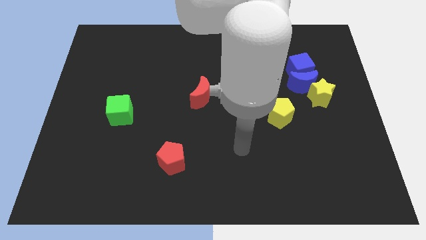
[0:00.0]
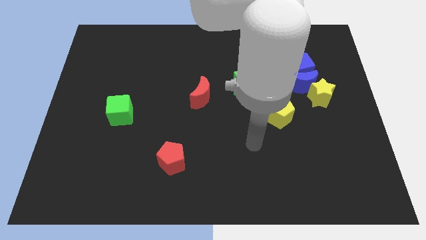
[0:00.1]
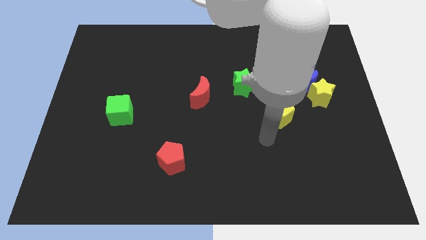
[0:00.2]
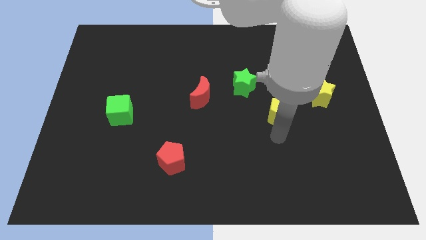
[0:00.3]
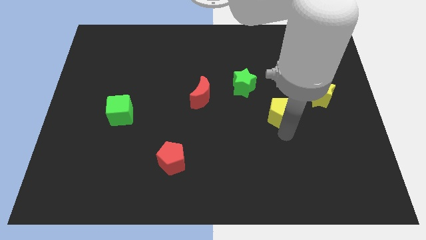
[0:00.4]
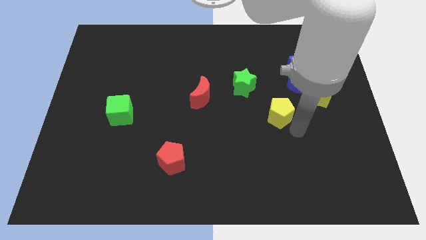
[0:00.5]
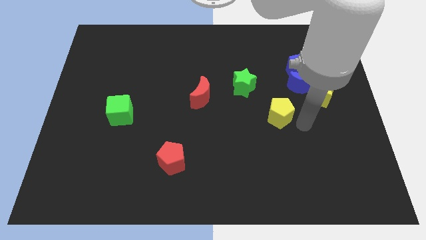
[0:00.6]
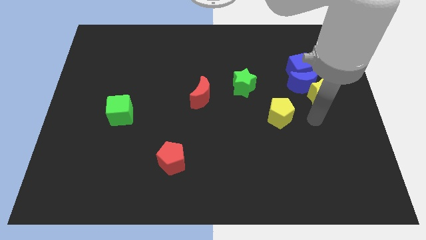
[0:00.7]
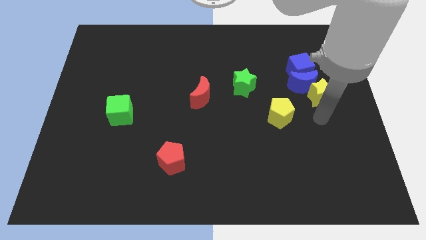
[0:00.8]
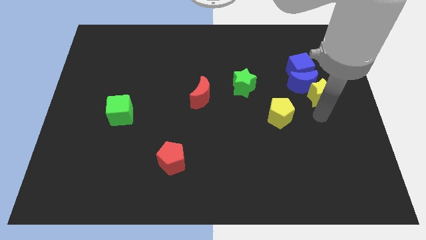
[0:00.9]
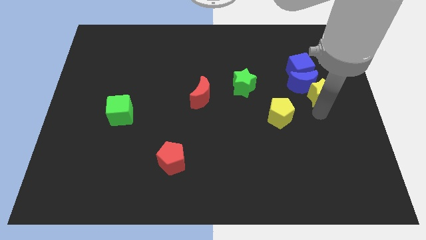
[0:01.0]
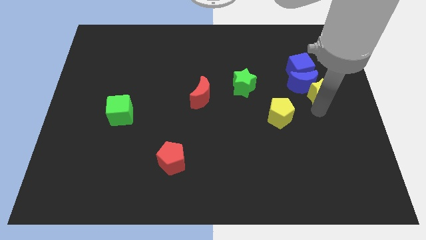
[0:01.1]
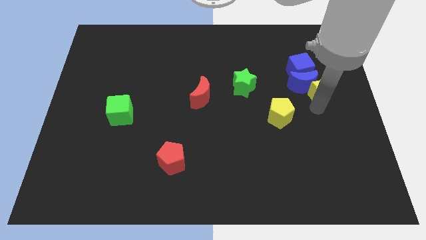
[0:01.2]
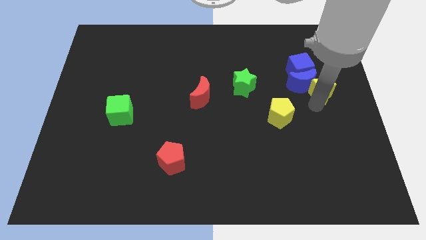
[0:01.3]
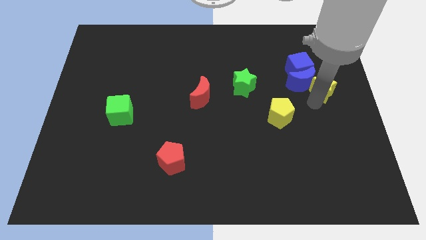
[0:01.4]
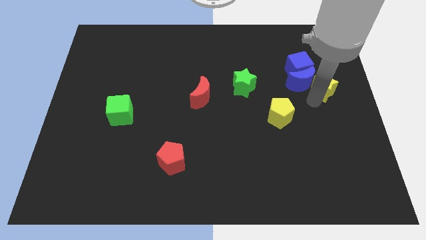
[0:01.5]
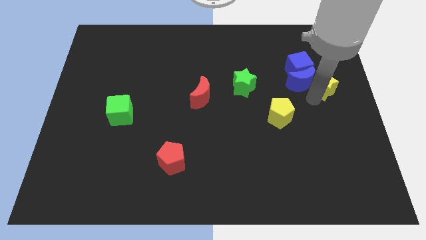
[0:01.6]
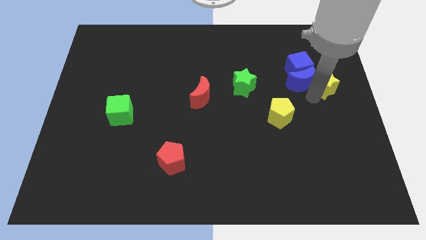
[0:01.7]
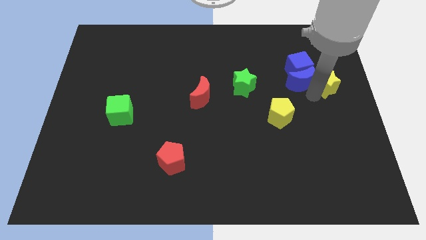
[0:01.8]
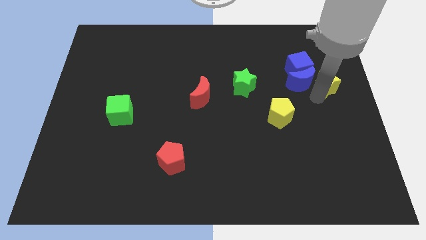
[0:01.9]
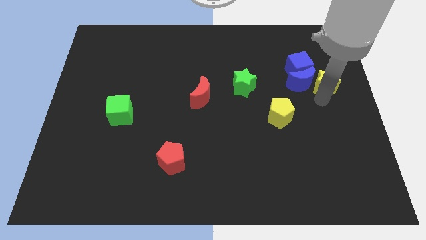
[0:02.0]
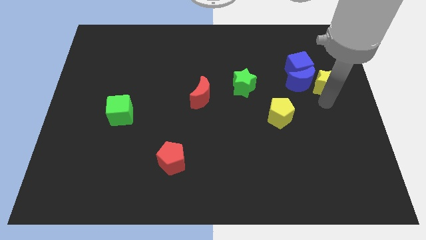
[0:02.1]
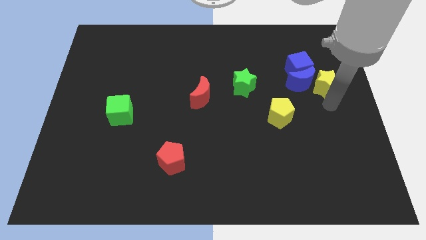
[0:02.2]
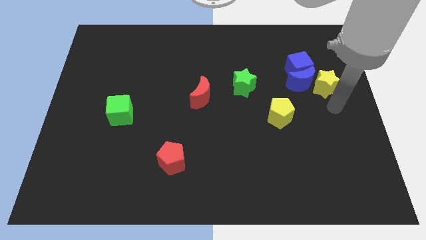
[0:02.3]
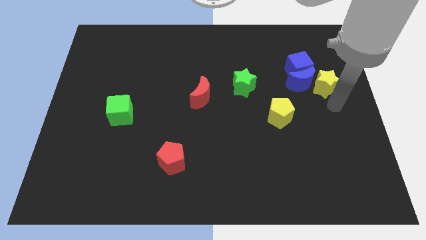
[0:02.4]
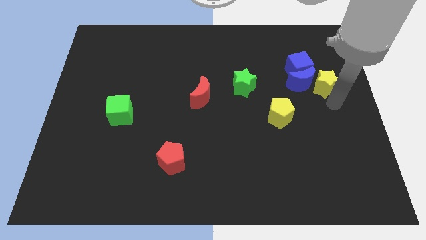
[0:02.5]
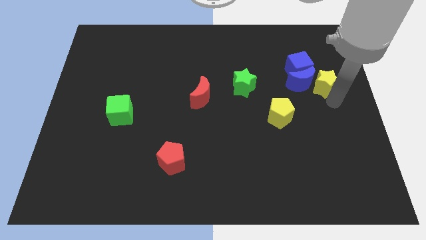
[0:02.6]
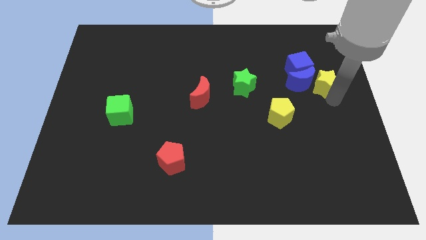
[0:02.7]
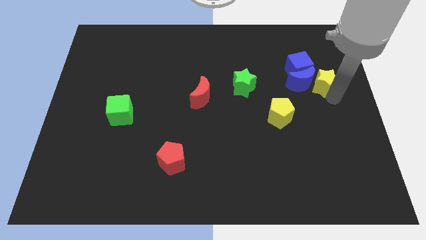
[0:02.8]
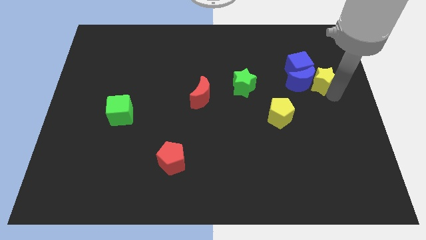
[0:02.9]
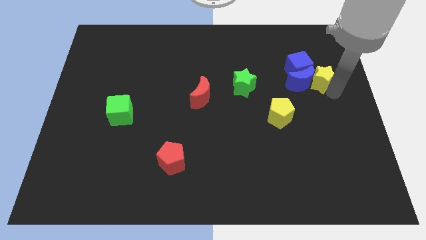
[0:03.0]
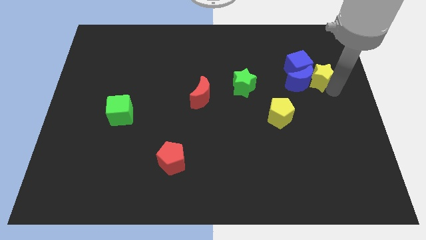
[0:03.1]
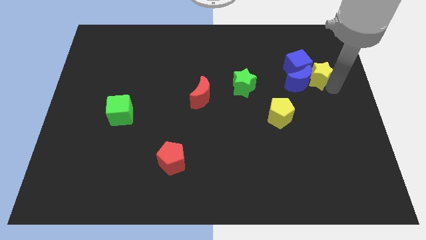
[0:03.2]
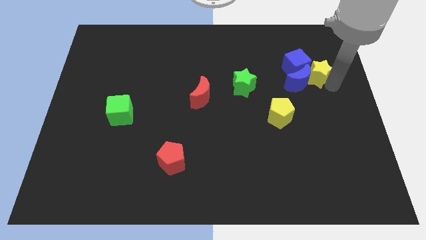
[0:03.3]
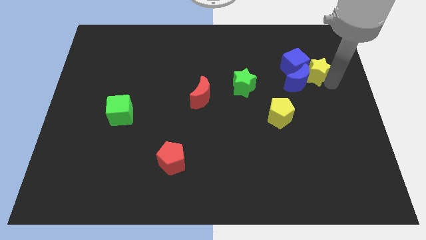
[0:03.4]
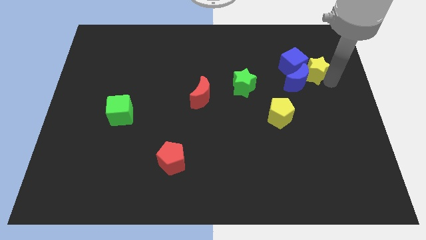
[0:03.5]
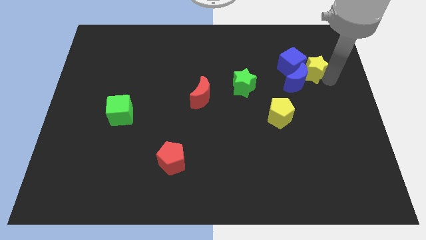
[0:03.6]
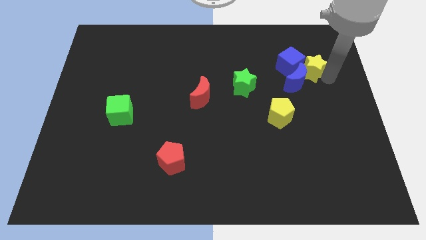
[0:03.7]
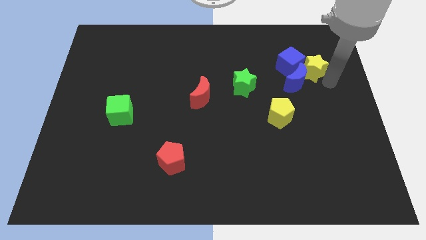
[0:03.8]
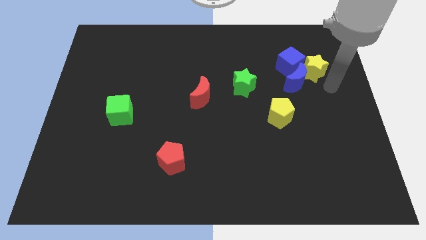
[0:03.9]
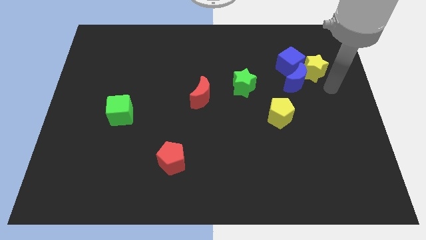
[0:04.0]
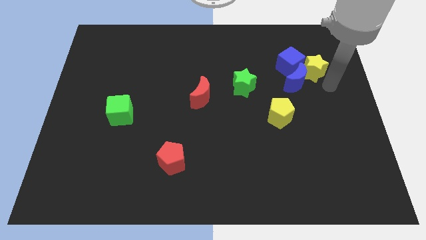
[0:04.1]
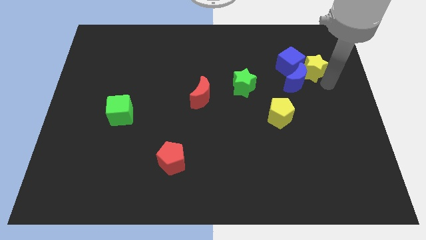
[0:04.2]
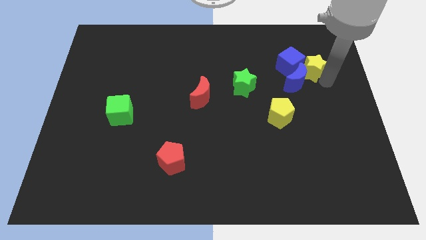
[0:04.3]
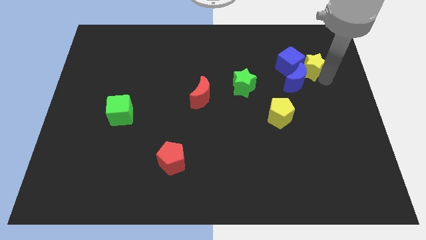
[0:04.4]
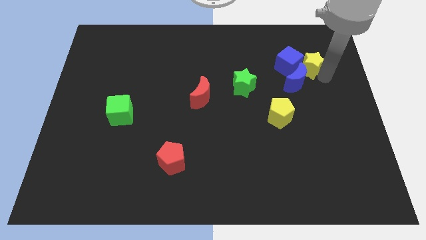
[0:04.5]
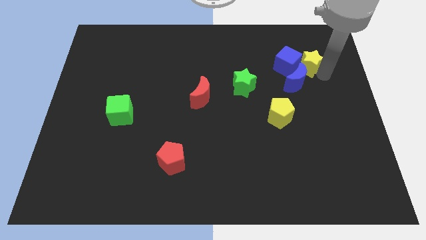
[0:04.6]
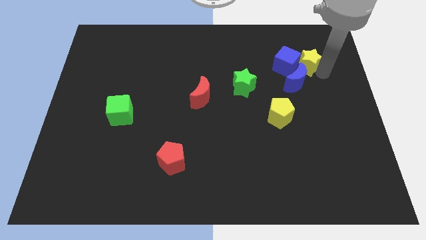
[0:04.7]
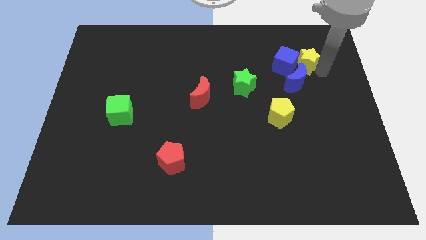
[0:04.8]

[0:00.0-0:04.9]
slightly move the yellow star up and left

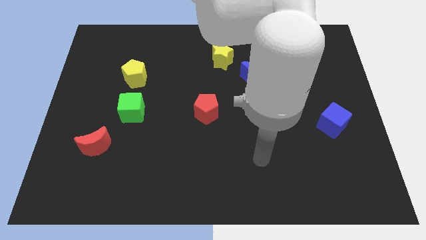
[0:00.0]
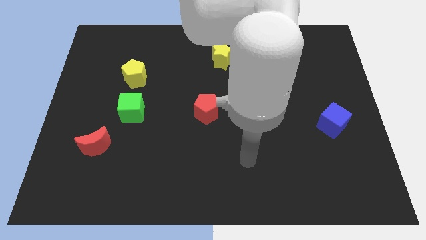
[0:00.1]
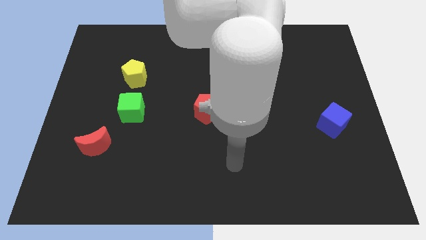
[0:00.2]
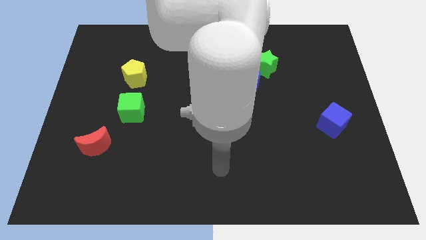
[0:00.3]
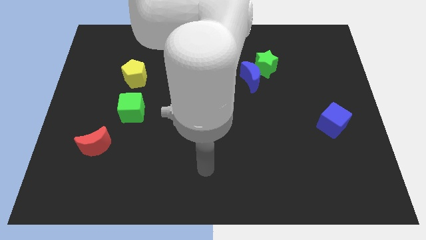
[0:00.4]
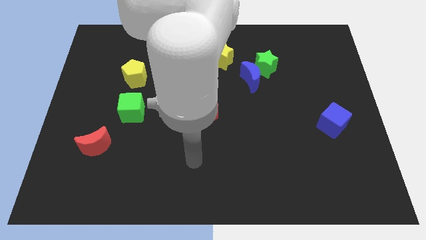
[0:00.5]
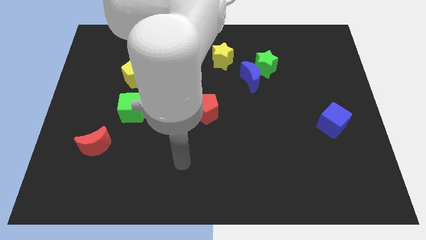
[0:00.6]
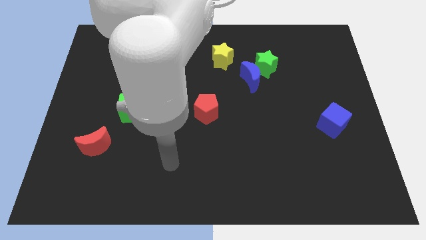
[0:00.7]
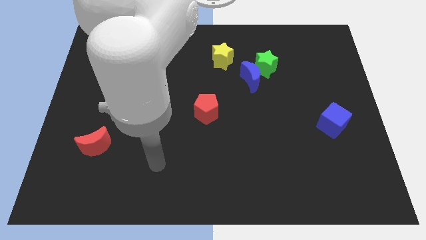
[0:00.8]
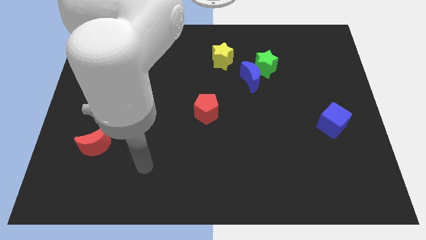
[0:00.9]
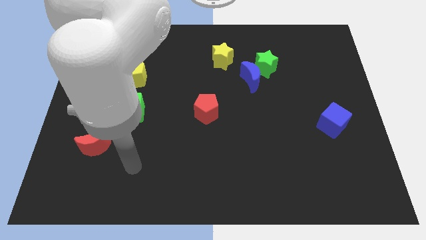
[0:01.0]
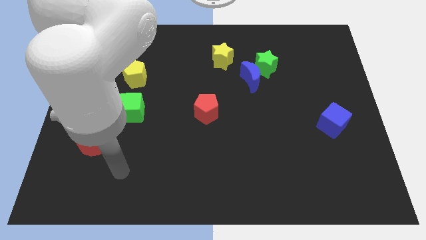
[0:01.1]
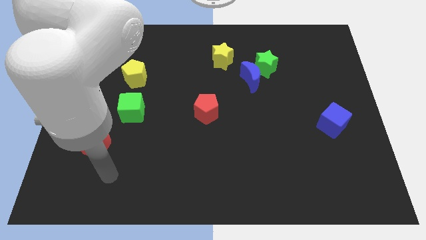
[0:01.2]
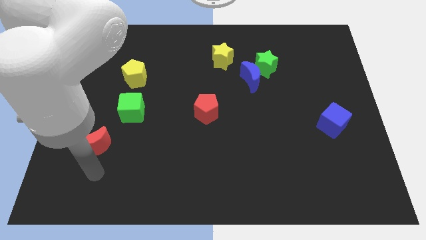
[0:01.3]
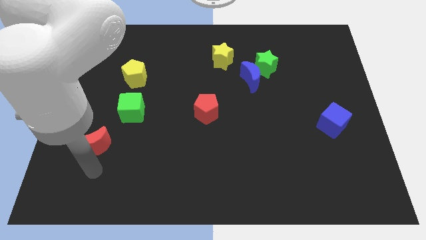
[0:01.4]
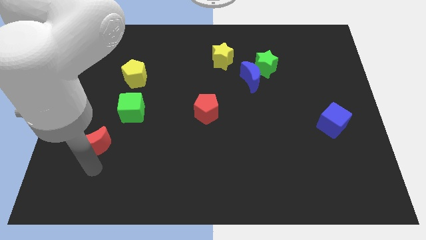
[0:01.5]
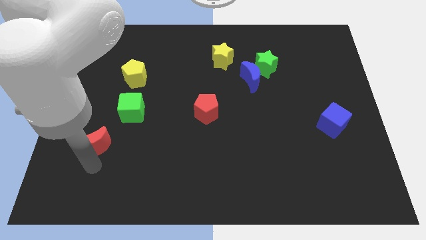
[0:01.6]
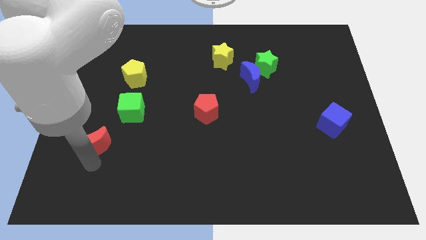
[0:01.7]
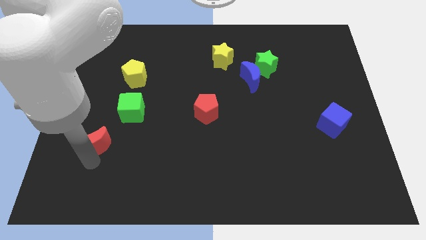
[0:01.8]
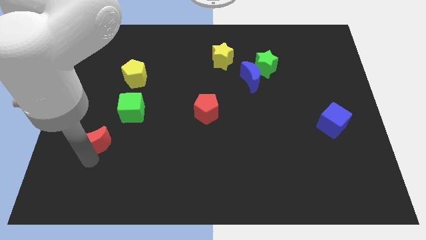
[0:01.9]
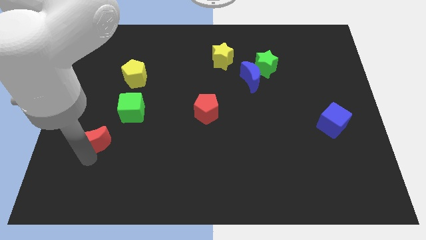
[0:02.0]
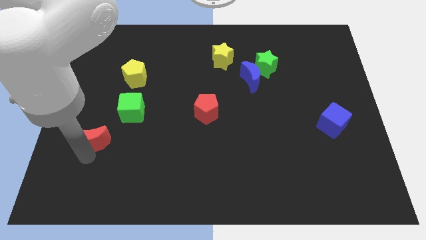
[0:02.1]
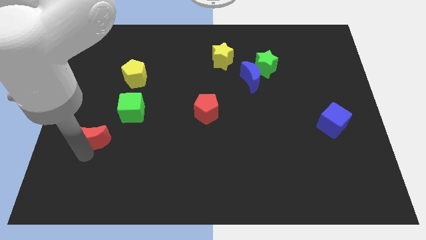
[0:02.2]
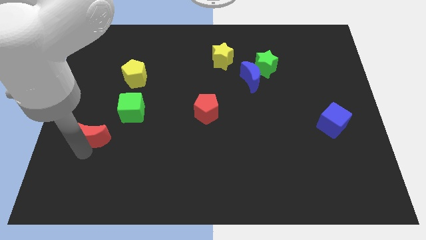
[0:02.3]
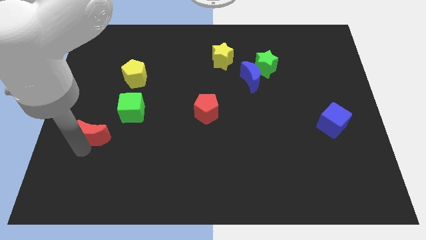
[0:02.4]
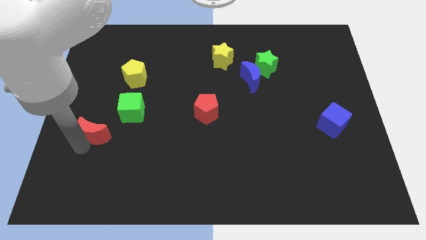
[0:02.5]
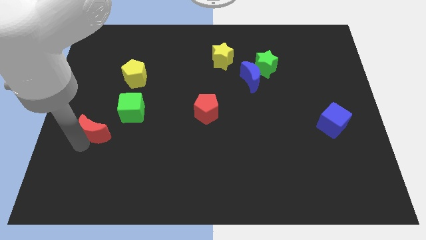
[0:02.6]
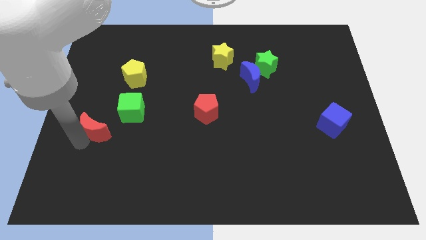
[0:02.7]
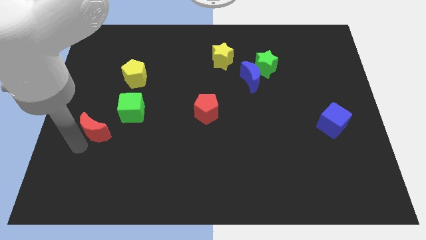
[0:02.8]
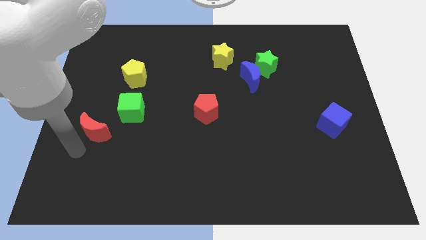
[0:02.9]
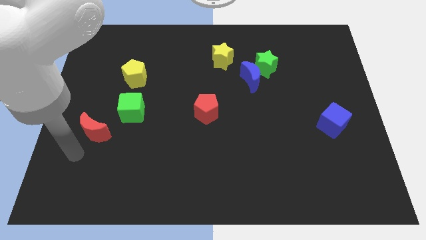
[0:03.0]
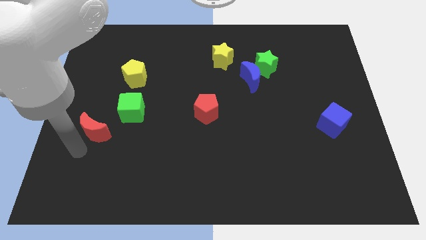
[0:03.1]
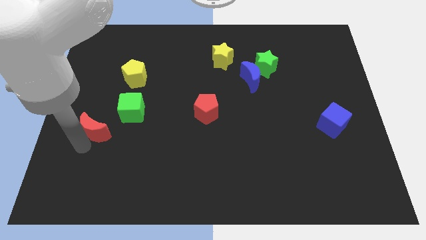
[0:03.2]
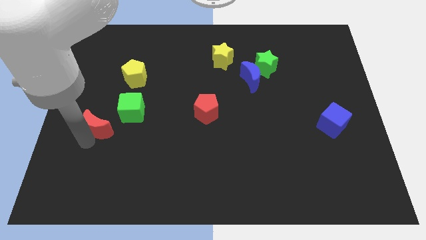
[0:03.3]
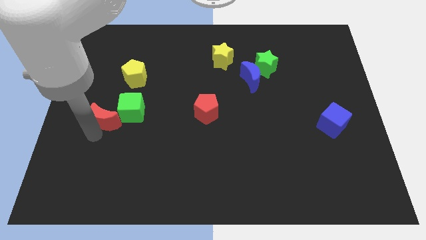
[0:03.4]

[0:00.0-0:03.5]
push the red moon up a little bit

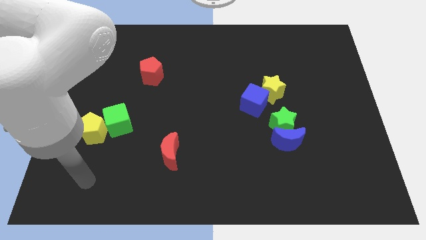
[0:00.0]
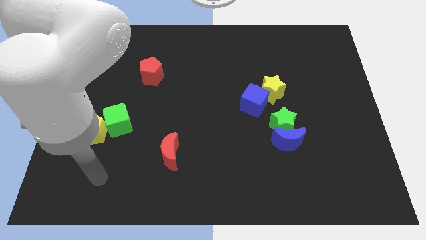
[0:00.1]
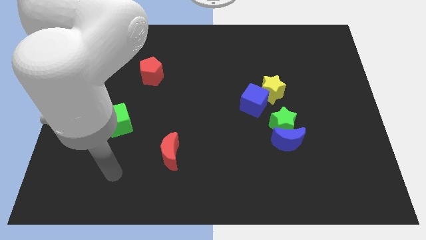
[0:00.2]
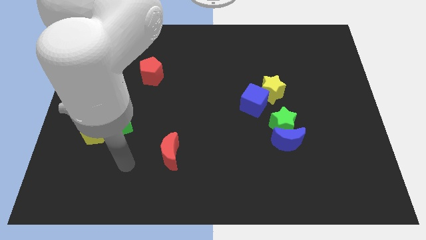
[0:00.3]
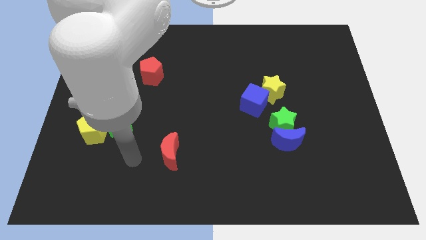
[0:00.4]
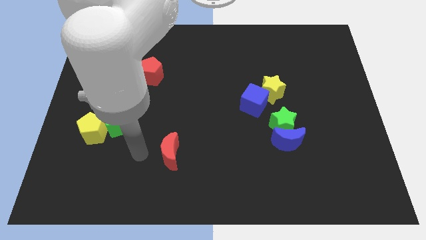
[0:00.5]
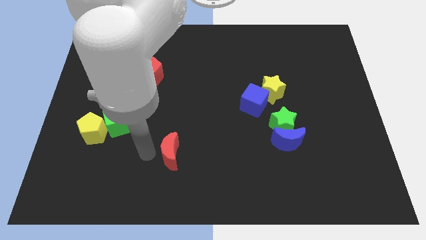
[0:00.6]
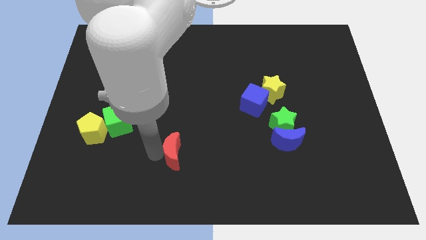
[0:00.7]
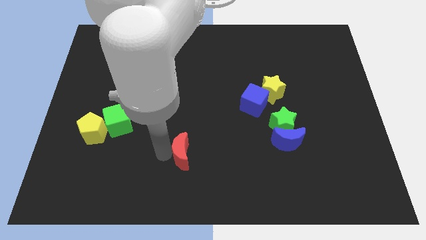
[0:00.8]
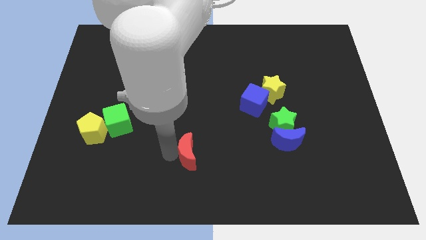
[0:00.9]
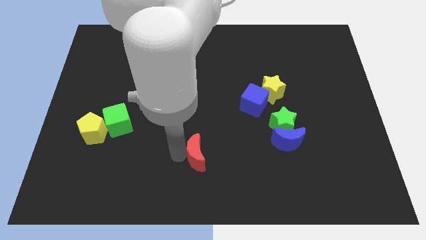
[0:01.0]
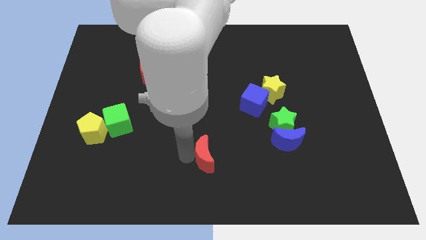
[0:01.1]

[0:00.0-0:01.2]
move the red moon a little bit right
